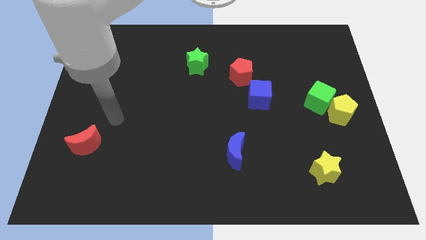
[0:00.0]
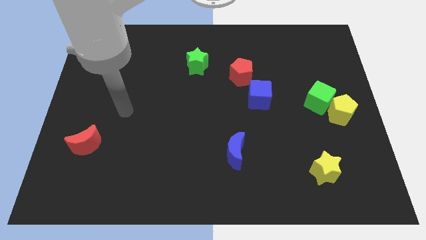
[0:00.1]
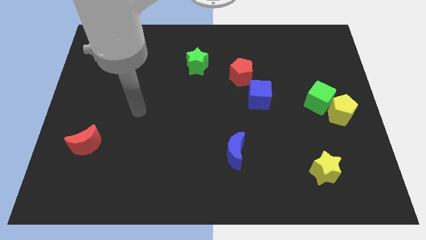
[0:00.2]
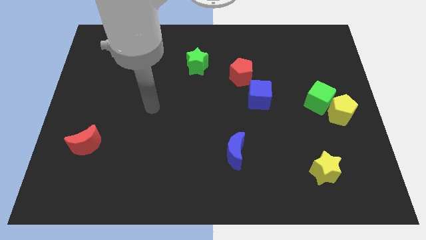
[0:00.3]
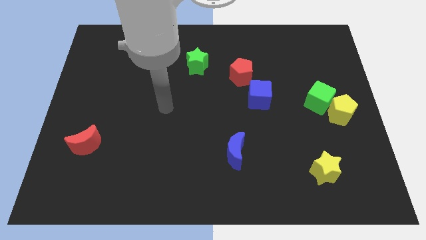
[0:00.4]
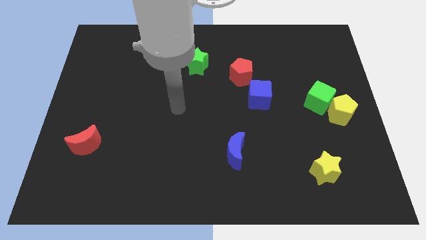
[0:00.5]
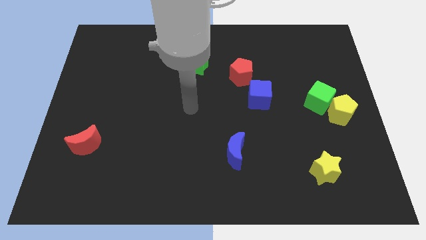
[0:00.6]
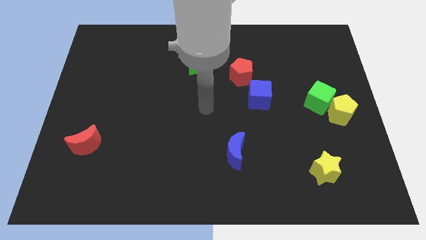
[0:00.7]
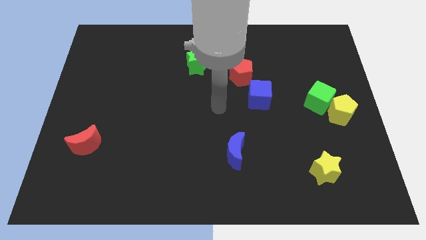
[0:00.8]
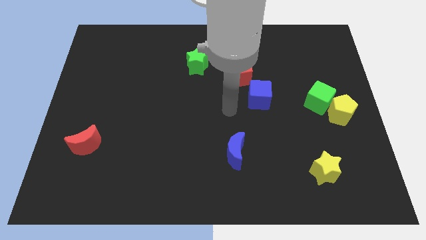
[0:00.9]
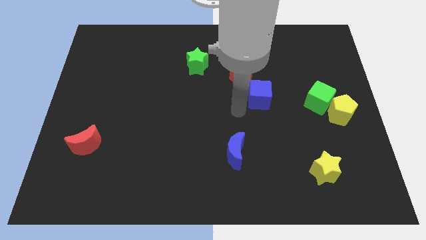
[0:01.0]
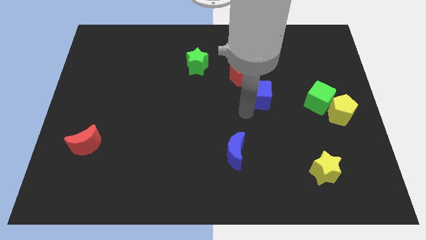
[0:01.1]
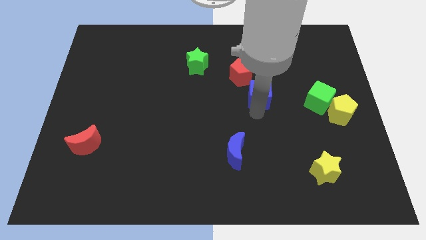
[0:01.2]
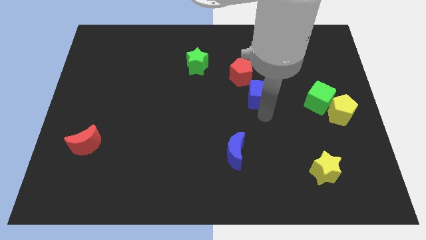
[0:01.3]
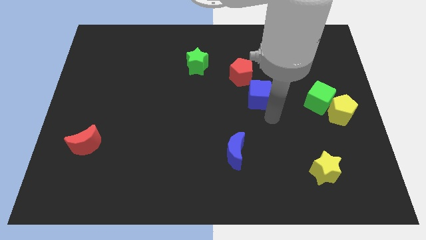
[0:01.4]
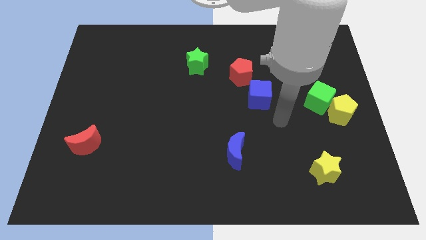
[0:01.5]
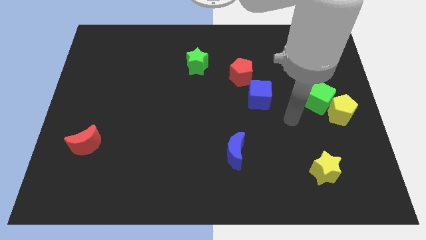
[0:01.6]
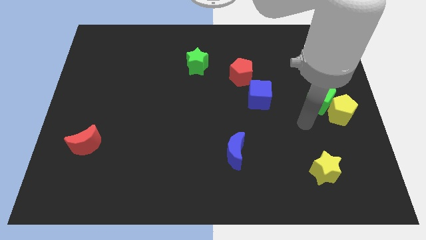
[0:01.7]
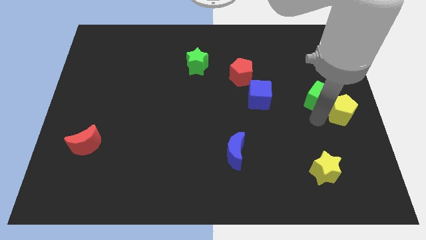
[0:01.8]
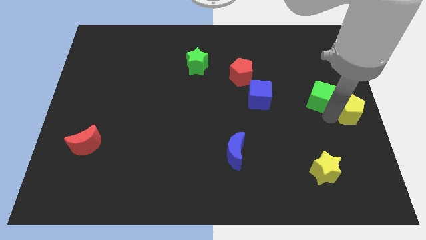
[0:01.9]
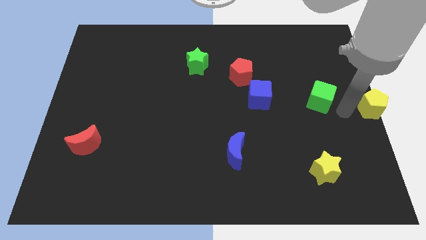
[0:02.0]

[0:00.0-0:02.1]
separate the green cube from the yellow pentagon

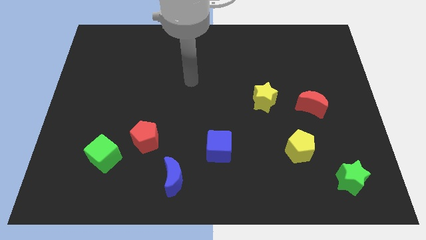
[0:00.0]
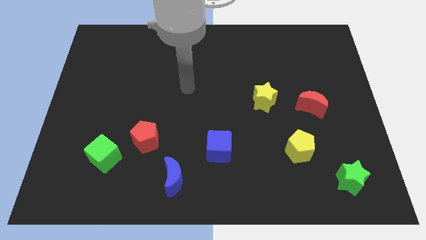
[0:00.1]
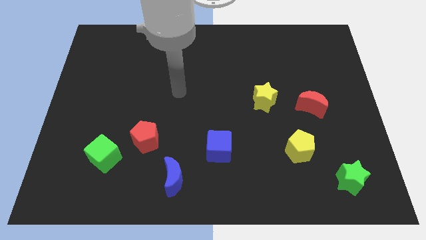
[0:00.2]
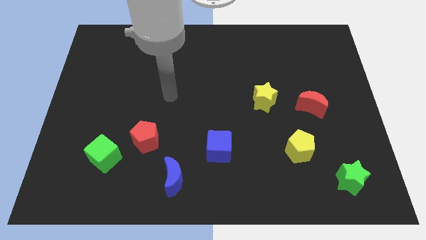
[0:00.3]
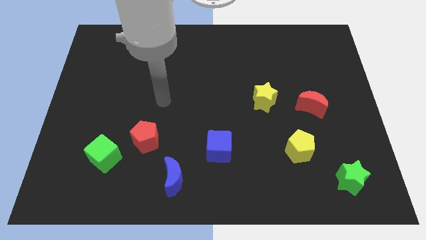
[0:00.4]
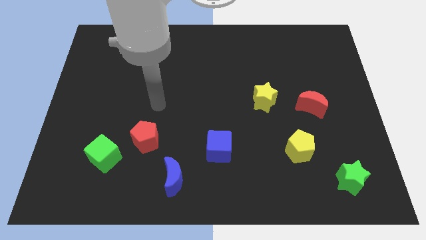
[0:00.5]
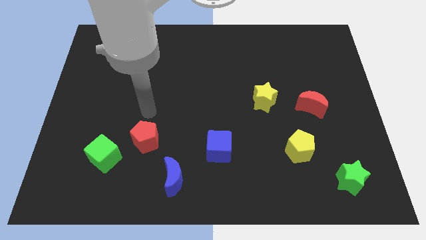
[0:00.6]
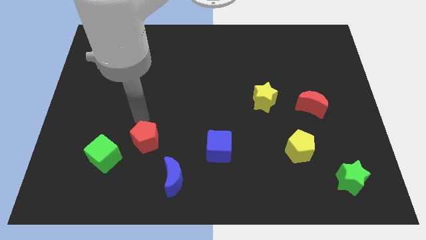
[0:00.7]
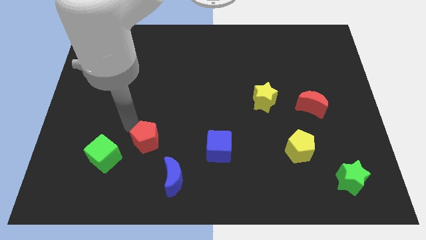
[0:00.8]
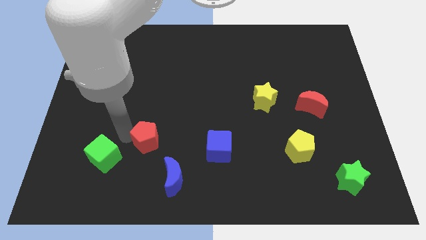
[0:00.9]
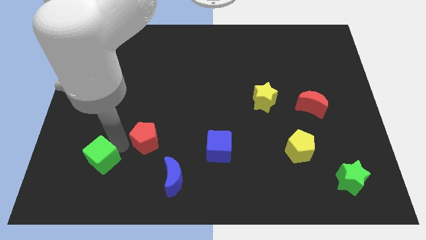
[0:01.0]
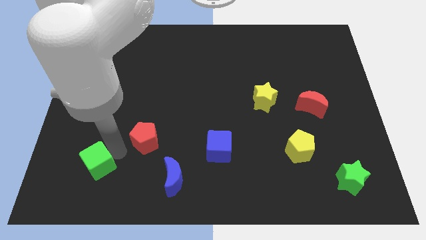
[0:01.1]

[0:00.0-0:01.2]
separate the red pentagon from the green cube

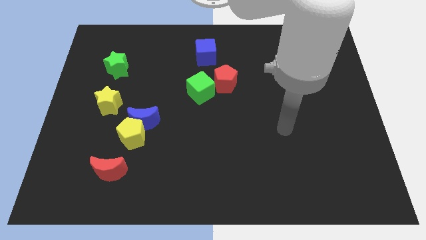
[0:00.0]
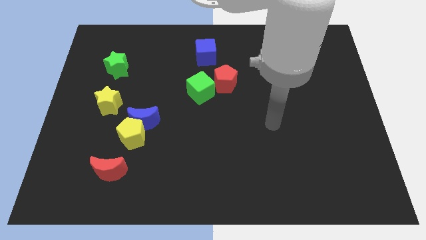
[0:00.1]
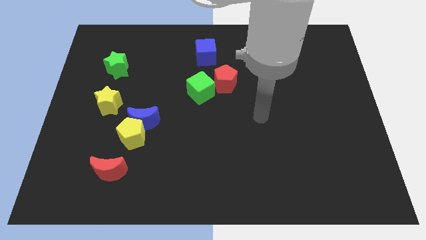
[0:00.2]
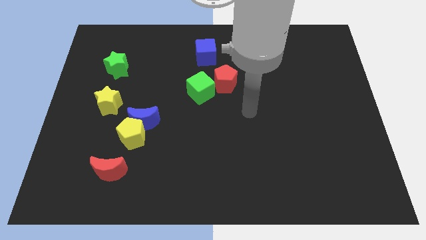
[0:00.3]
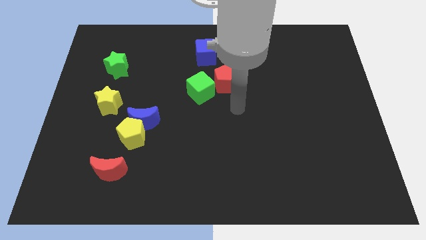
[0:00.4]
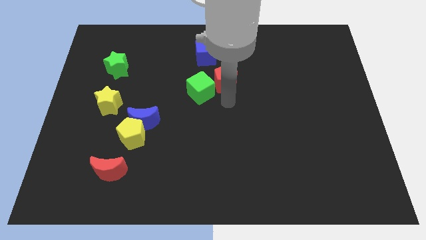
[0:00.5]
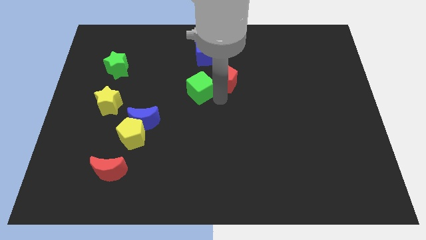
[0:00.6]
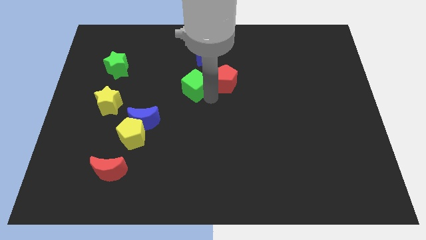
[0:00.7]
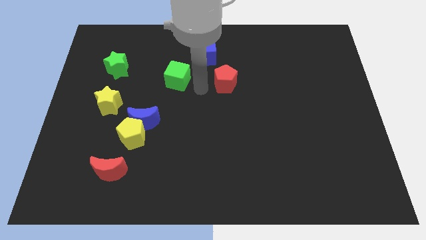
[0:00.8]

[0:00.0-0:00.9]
pull the red pentagon apart from the green cube

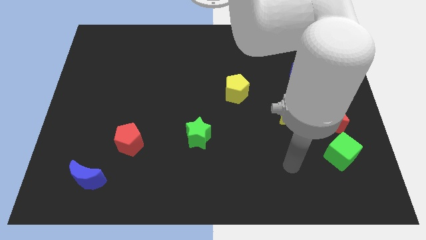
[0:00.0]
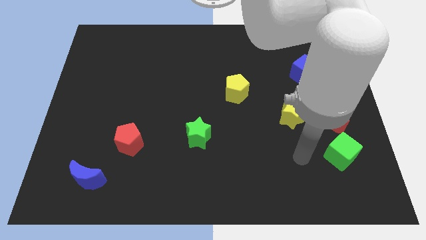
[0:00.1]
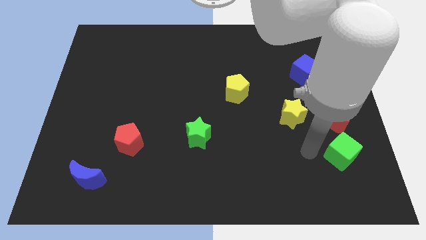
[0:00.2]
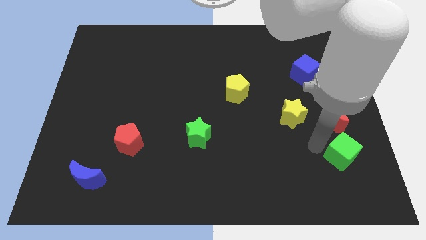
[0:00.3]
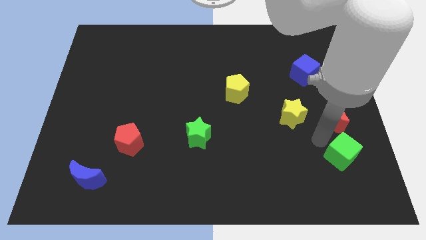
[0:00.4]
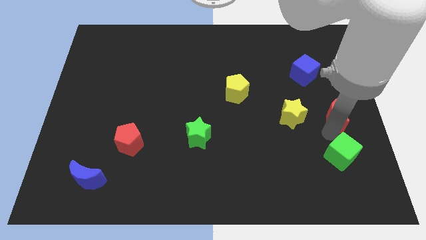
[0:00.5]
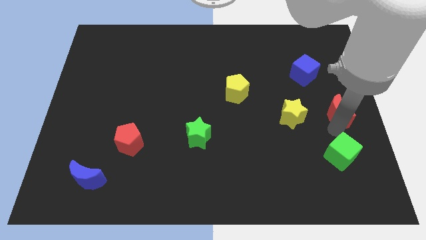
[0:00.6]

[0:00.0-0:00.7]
move the green cube away from the red moon

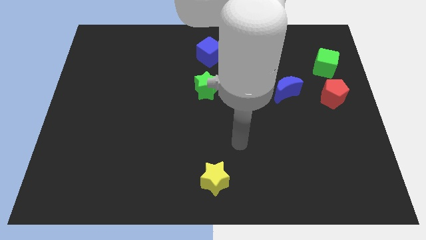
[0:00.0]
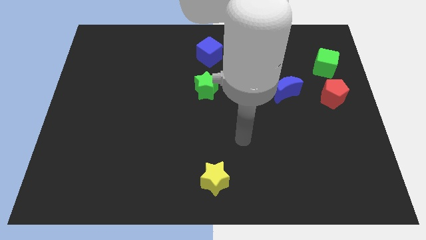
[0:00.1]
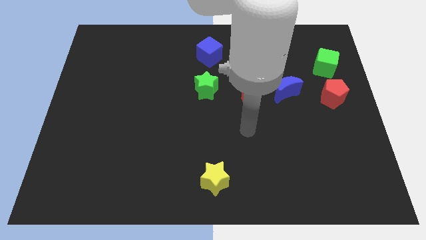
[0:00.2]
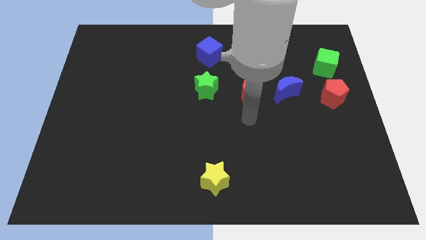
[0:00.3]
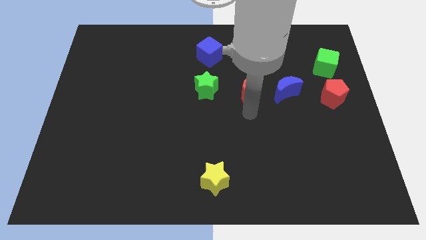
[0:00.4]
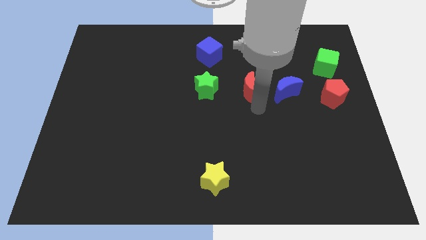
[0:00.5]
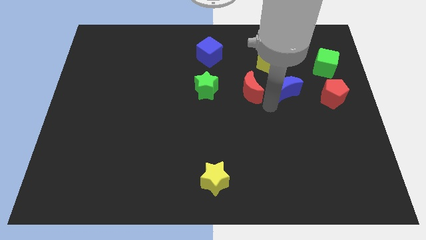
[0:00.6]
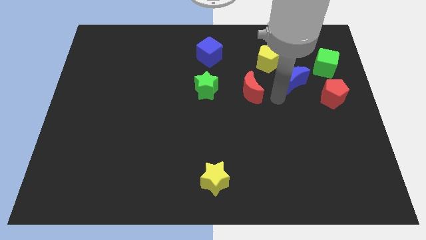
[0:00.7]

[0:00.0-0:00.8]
pull the red moon apart from the blue moon

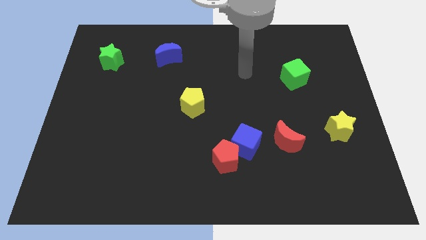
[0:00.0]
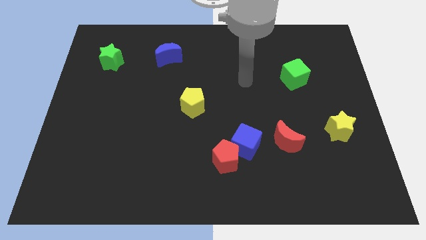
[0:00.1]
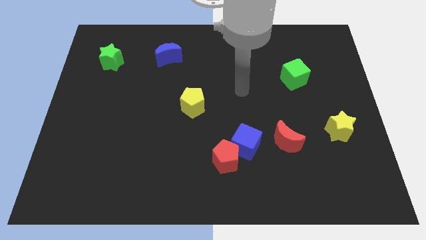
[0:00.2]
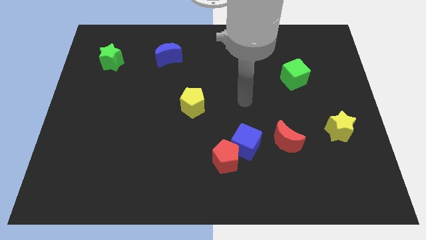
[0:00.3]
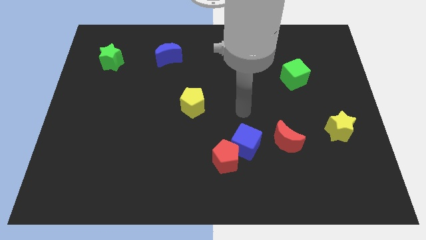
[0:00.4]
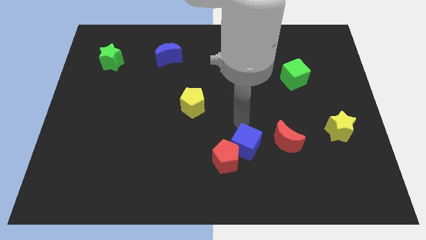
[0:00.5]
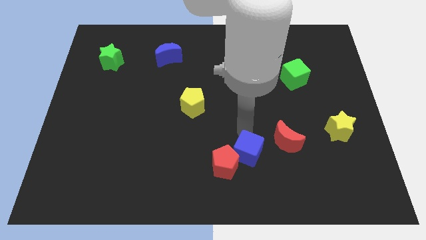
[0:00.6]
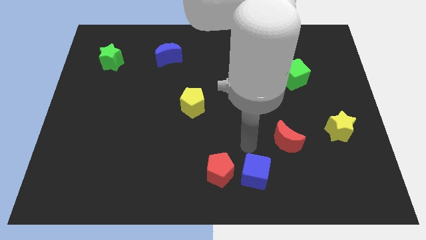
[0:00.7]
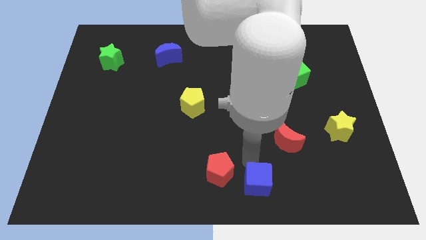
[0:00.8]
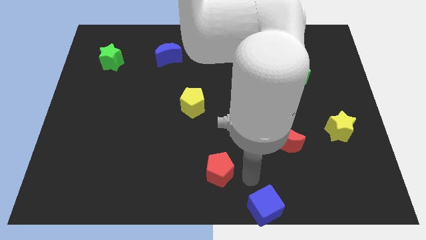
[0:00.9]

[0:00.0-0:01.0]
pull the red pentagon apart from the blue cube

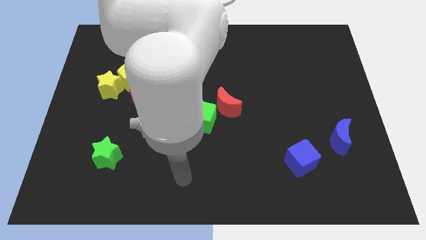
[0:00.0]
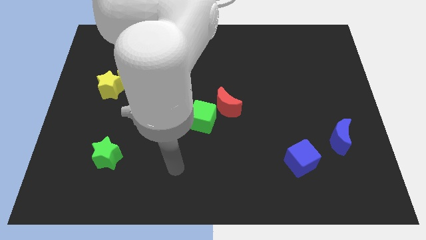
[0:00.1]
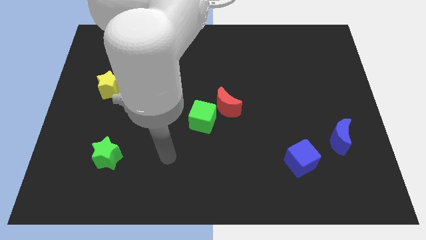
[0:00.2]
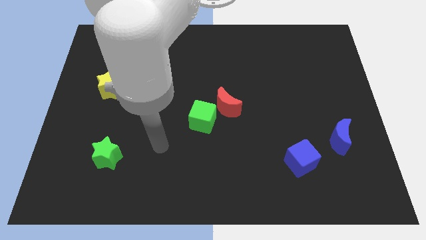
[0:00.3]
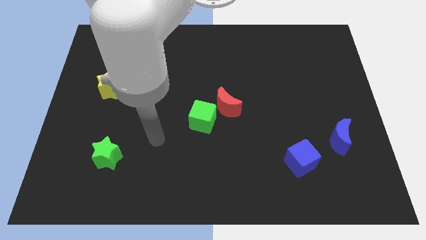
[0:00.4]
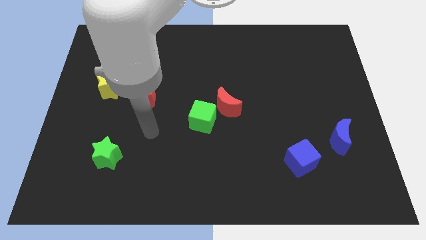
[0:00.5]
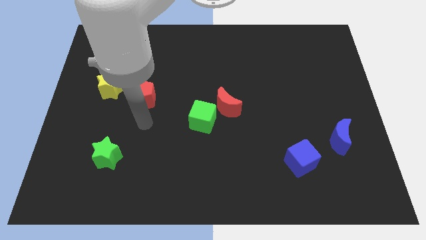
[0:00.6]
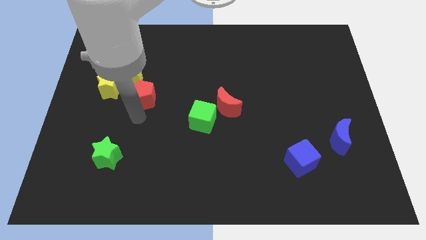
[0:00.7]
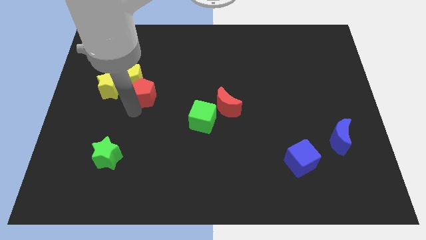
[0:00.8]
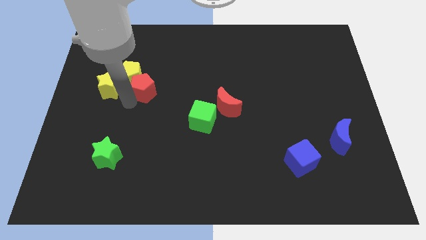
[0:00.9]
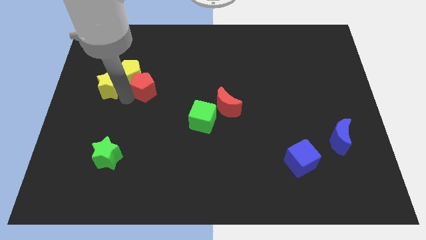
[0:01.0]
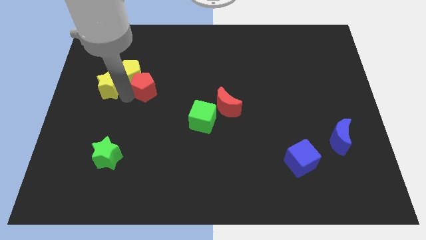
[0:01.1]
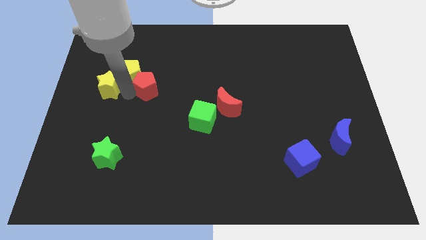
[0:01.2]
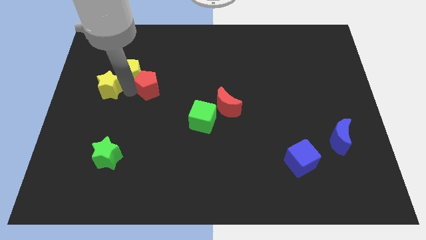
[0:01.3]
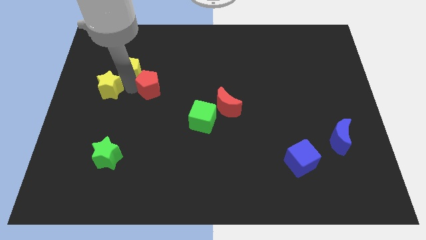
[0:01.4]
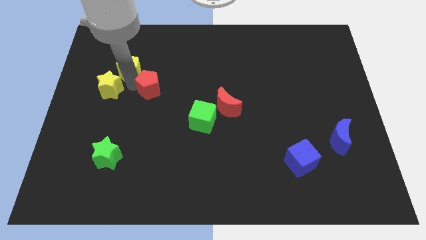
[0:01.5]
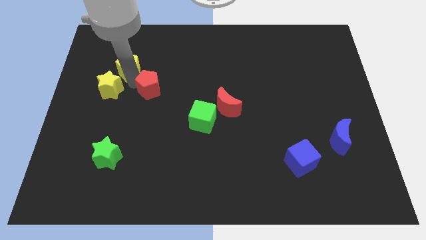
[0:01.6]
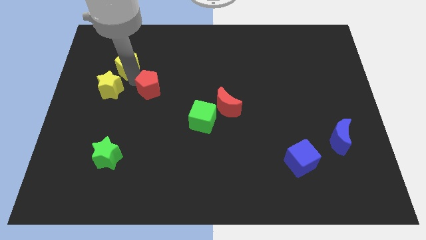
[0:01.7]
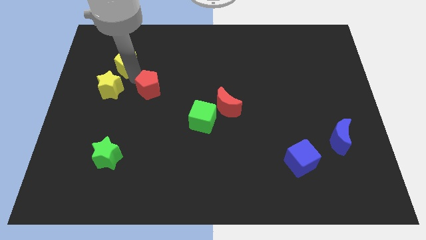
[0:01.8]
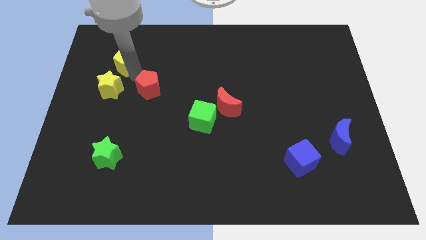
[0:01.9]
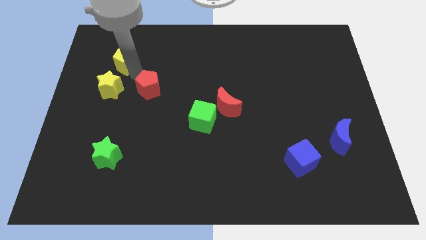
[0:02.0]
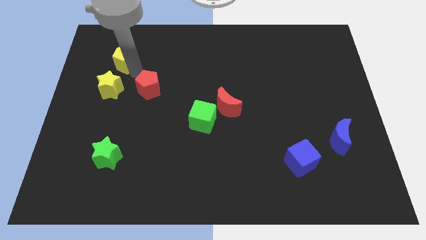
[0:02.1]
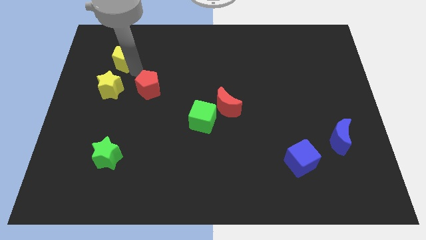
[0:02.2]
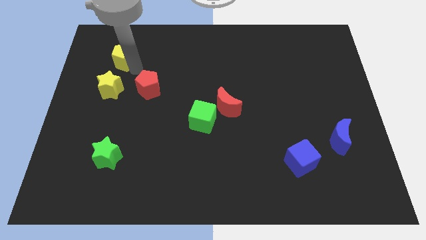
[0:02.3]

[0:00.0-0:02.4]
move the yellow pentagon away from the yellow star and red pentagon
